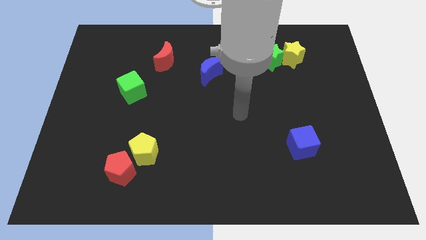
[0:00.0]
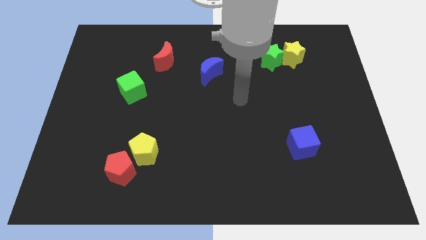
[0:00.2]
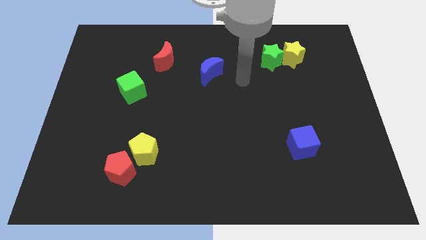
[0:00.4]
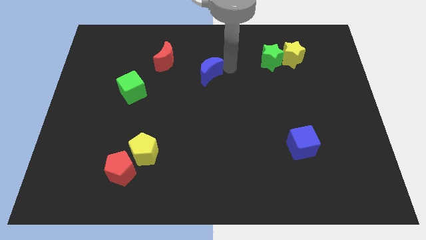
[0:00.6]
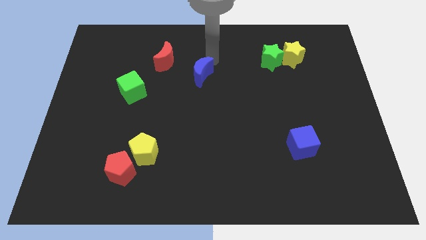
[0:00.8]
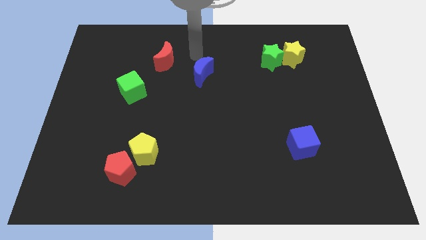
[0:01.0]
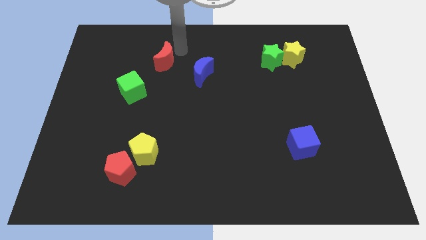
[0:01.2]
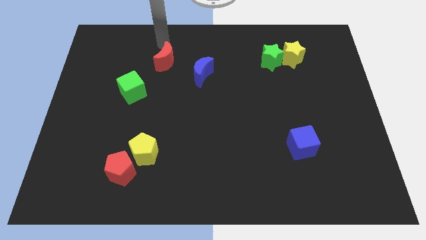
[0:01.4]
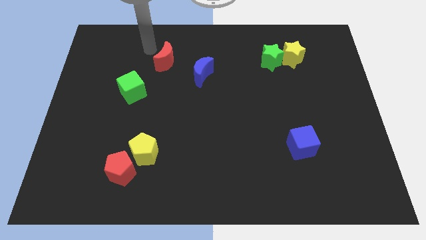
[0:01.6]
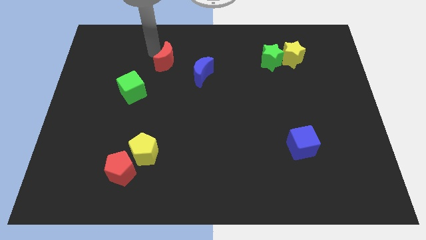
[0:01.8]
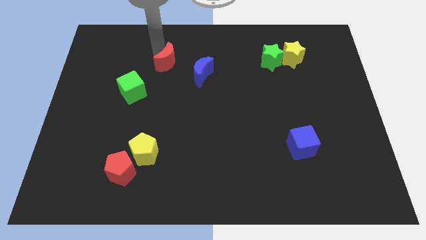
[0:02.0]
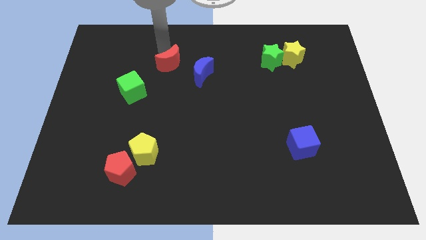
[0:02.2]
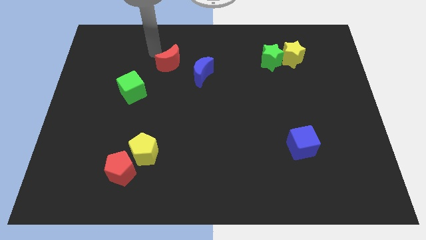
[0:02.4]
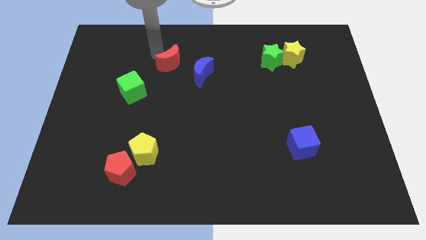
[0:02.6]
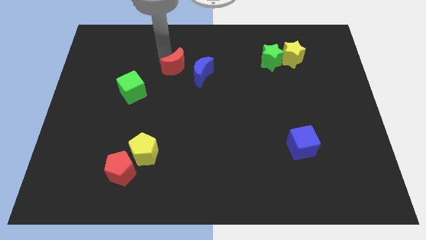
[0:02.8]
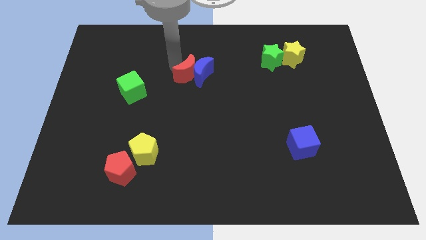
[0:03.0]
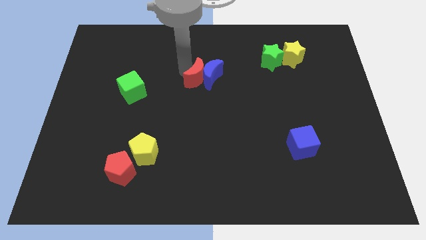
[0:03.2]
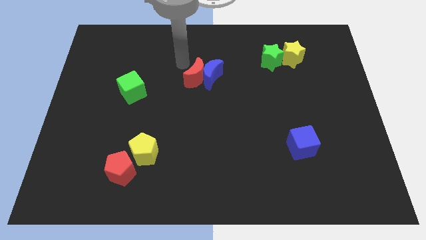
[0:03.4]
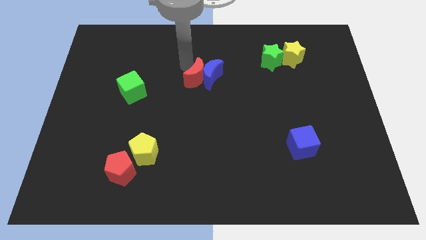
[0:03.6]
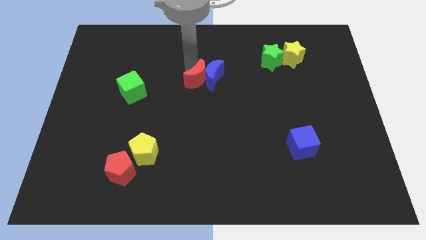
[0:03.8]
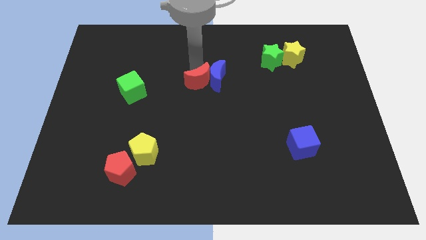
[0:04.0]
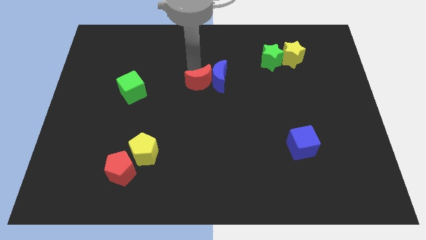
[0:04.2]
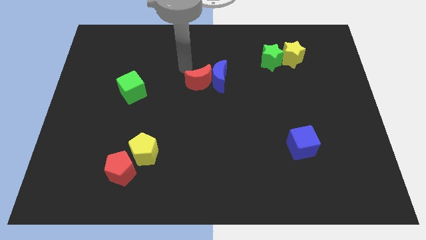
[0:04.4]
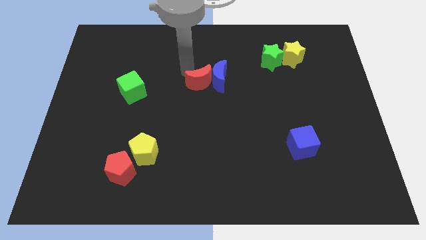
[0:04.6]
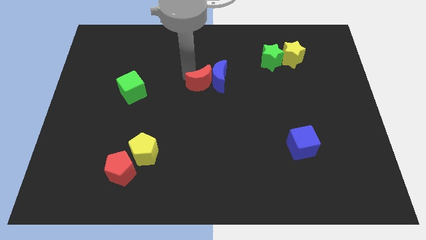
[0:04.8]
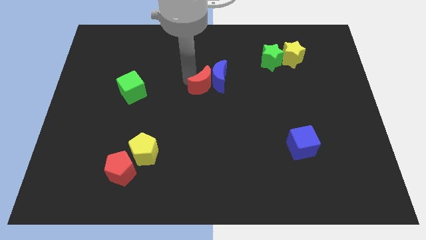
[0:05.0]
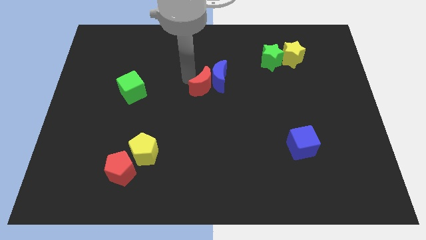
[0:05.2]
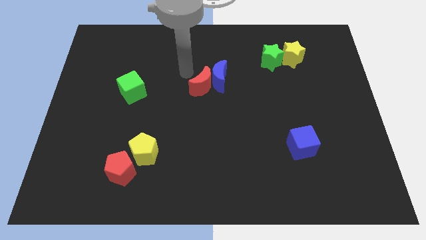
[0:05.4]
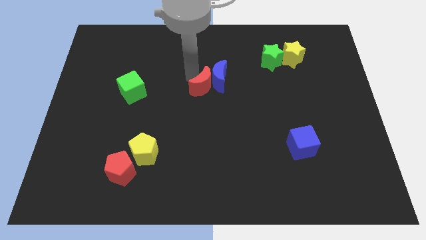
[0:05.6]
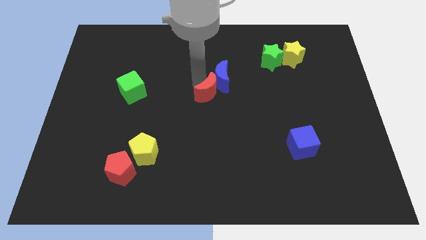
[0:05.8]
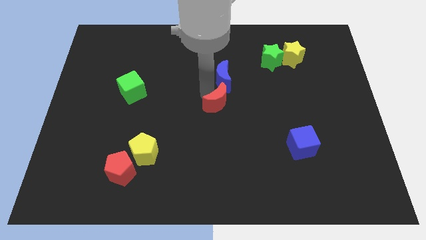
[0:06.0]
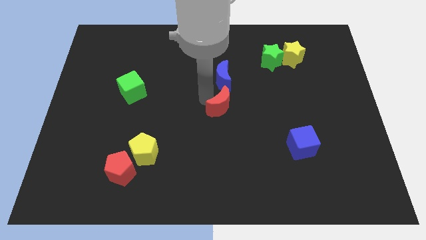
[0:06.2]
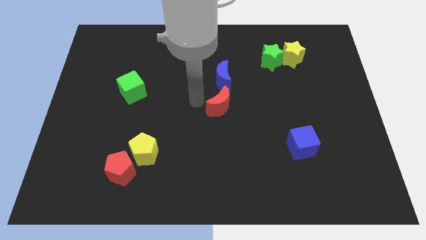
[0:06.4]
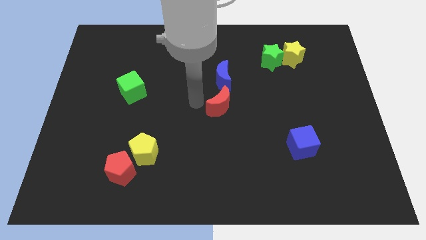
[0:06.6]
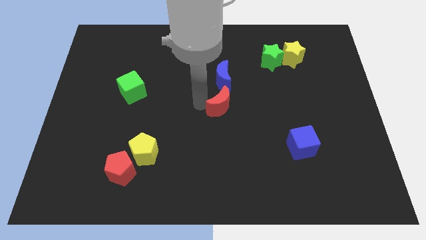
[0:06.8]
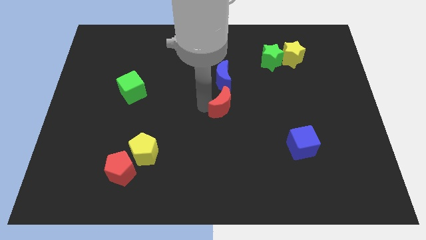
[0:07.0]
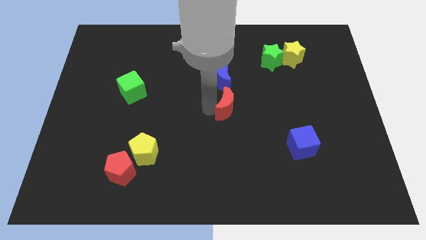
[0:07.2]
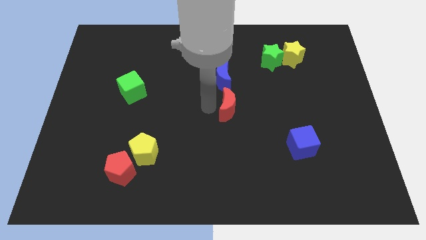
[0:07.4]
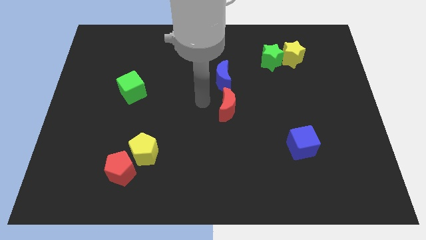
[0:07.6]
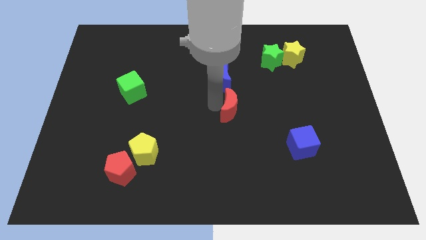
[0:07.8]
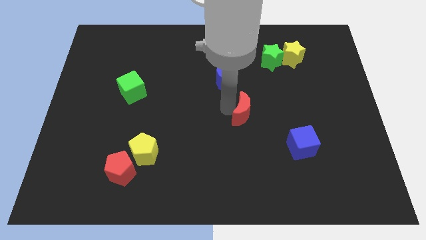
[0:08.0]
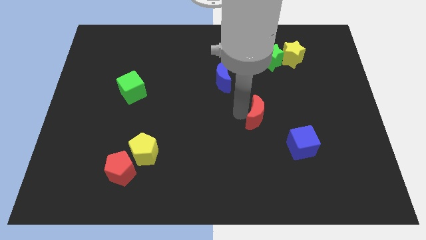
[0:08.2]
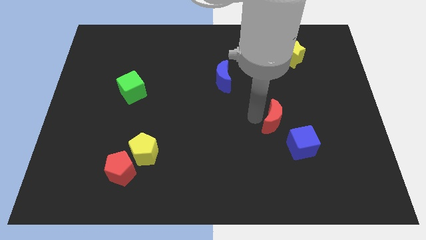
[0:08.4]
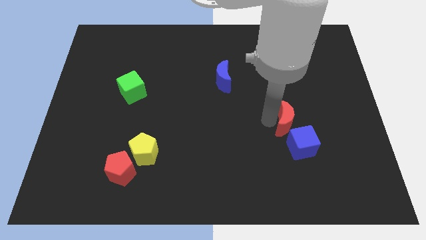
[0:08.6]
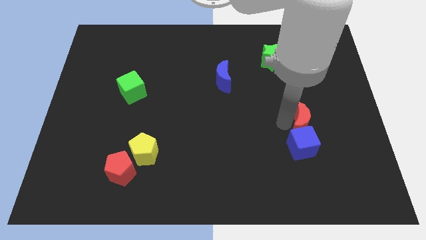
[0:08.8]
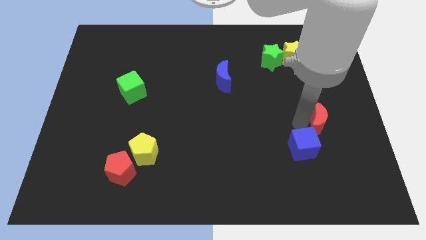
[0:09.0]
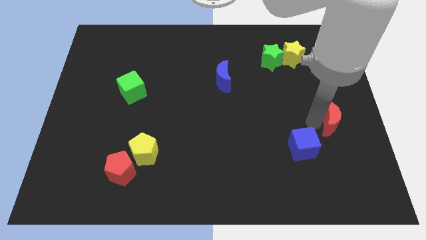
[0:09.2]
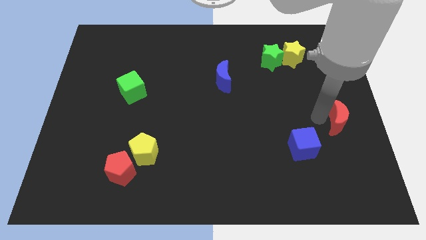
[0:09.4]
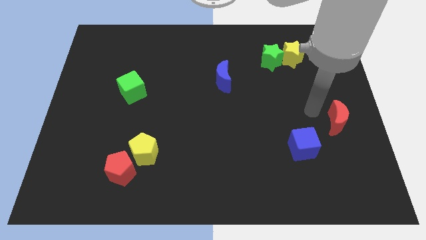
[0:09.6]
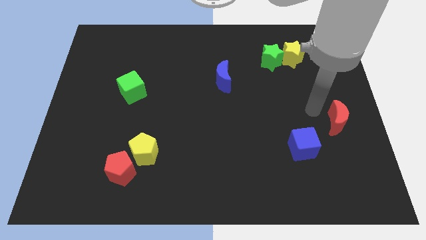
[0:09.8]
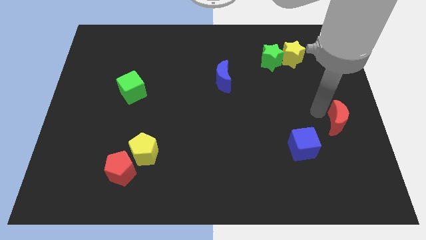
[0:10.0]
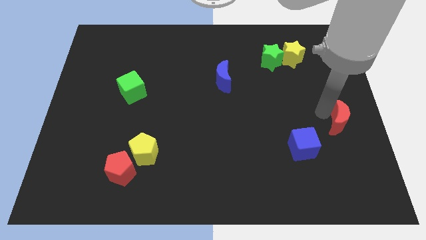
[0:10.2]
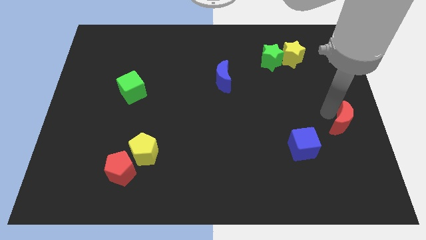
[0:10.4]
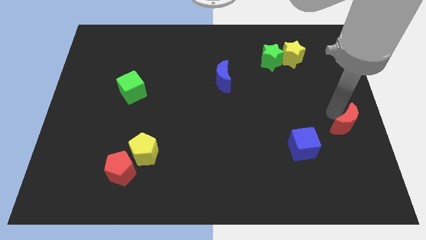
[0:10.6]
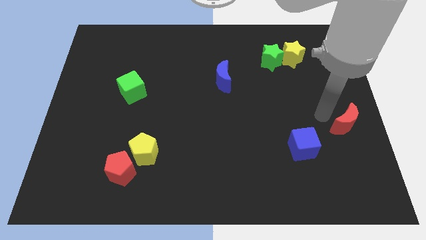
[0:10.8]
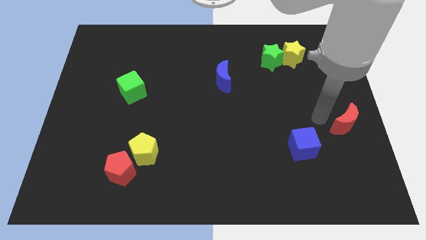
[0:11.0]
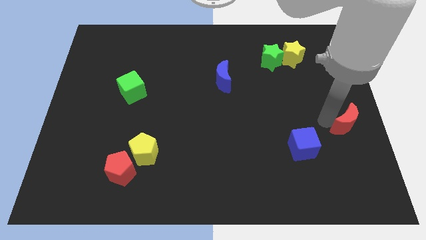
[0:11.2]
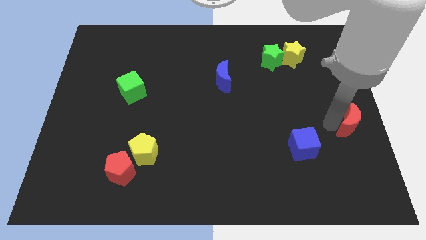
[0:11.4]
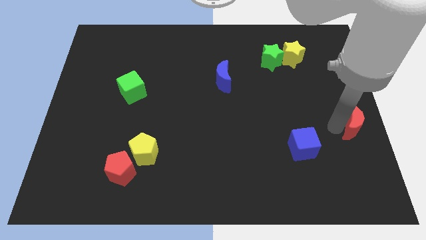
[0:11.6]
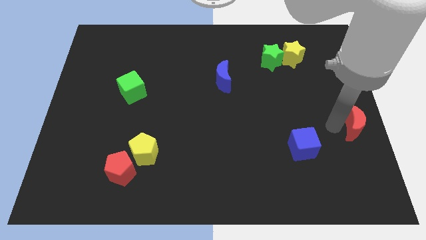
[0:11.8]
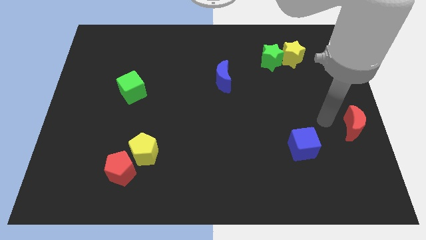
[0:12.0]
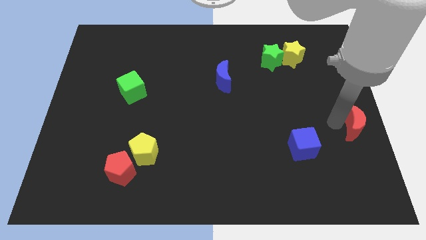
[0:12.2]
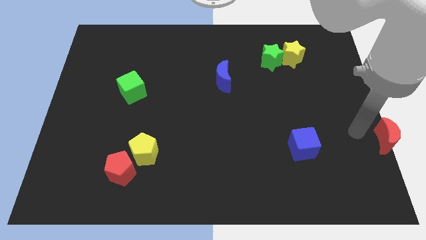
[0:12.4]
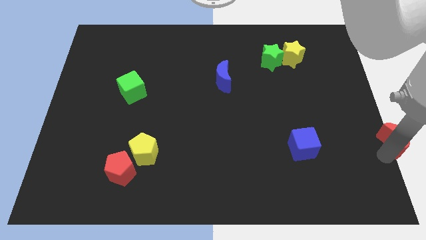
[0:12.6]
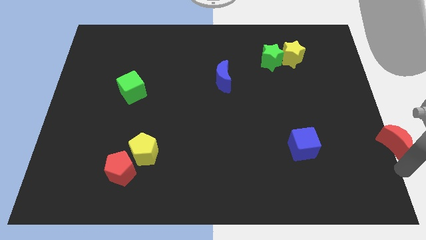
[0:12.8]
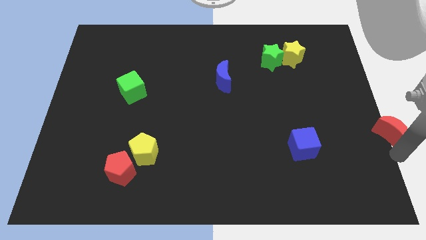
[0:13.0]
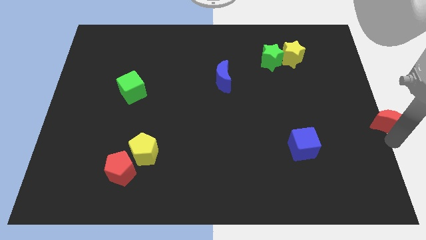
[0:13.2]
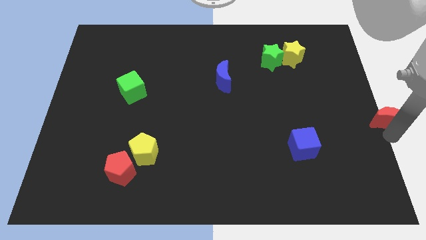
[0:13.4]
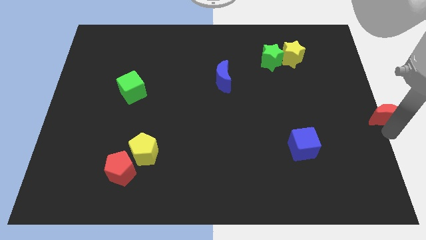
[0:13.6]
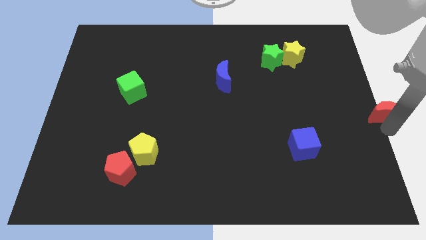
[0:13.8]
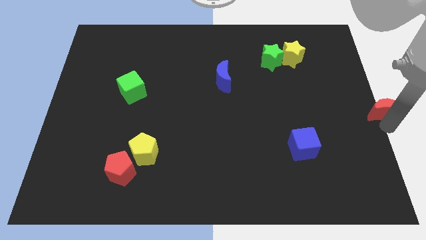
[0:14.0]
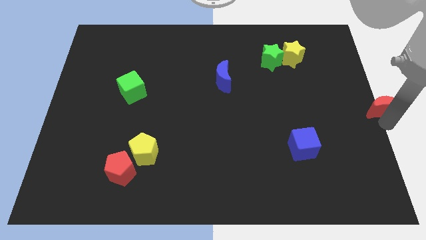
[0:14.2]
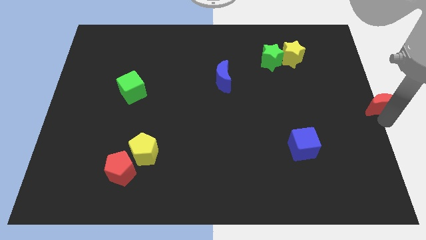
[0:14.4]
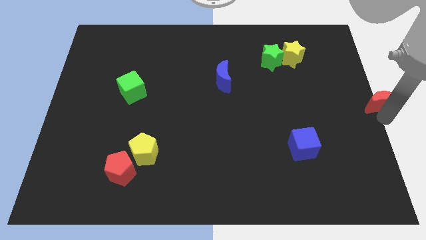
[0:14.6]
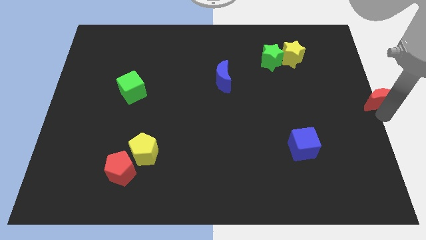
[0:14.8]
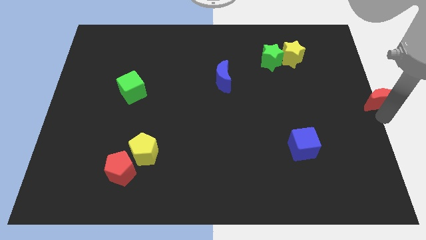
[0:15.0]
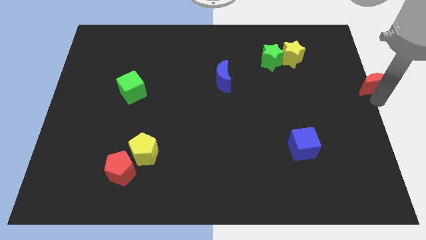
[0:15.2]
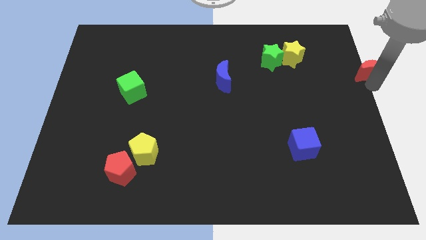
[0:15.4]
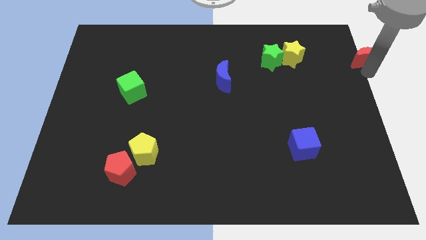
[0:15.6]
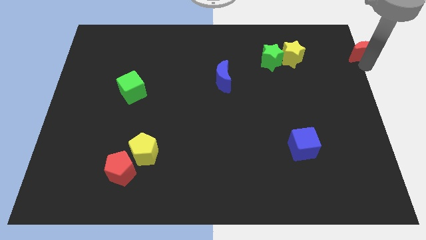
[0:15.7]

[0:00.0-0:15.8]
move the red moon to the top right corner
